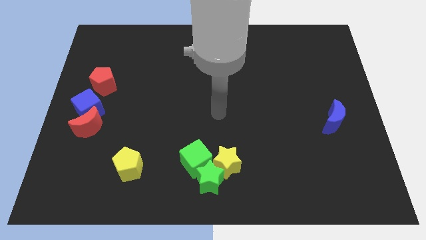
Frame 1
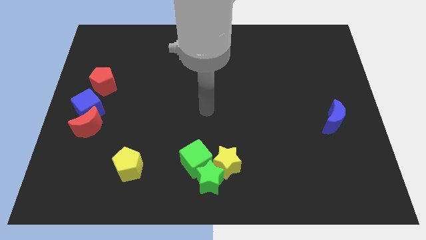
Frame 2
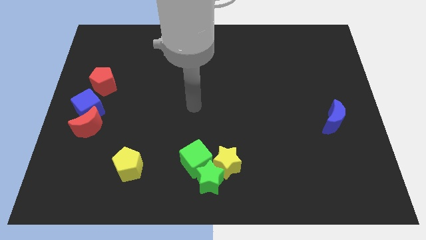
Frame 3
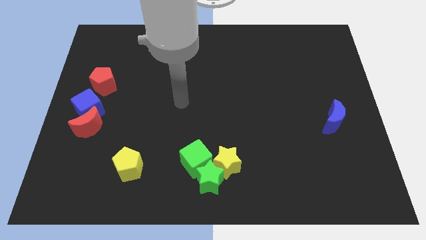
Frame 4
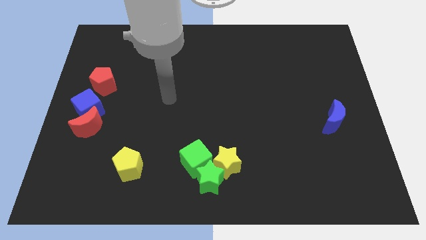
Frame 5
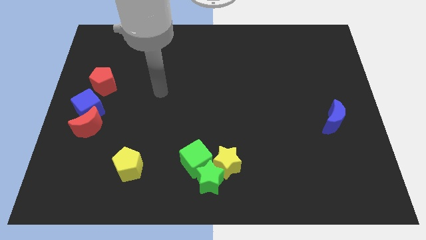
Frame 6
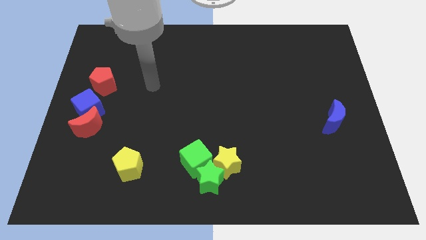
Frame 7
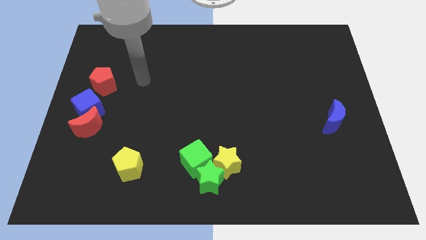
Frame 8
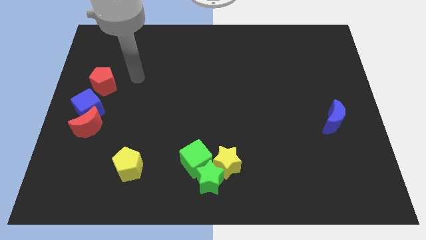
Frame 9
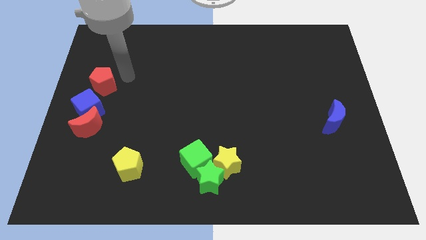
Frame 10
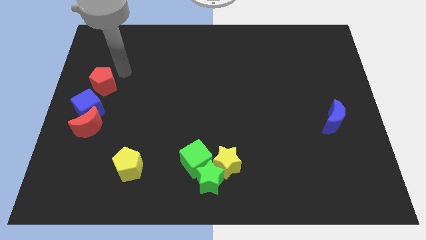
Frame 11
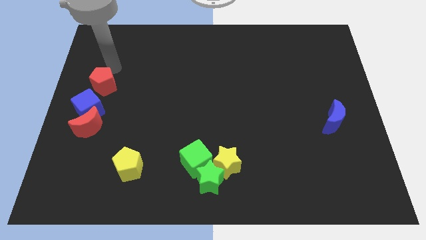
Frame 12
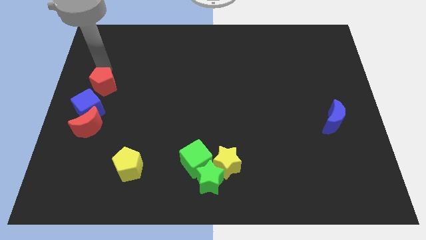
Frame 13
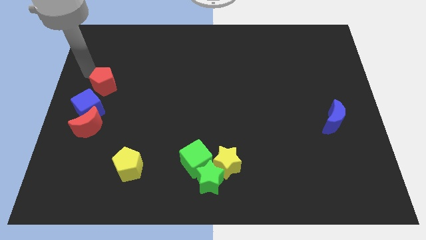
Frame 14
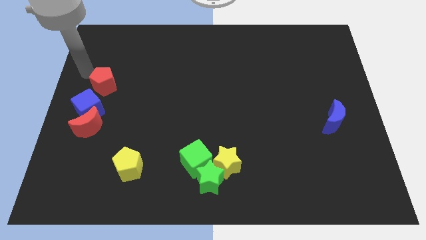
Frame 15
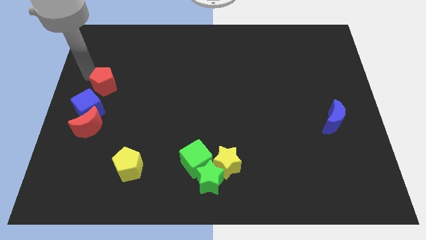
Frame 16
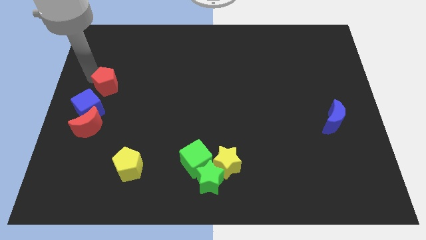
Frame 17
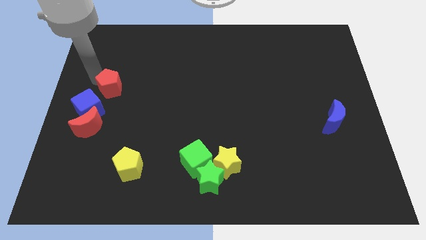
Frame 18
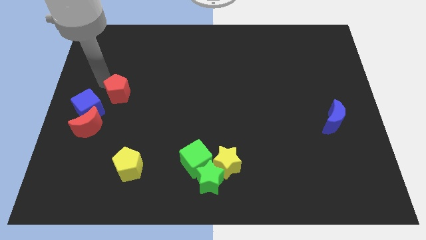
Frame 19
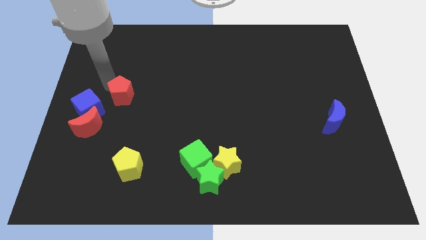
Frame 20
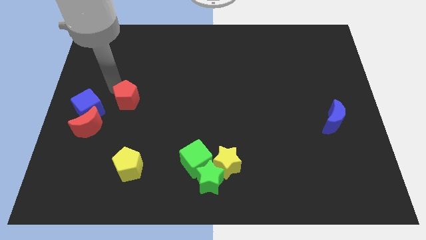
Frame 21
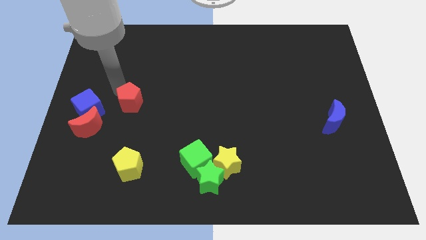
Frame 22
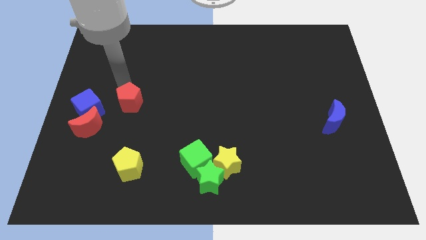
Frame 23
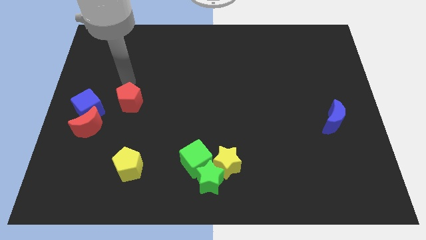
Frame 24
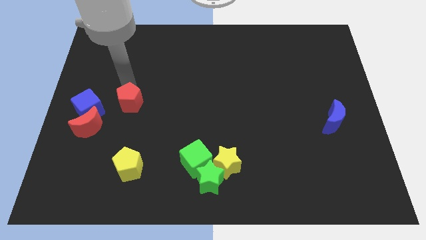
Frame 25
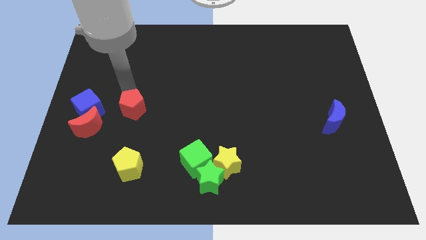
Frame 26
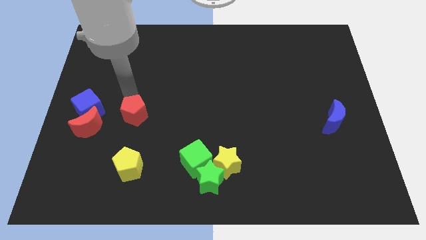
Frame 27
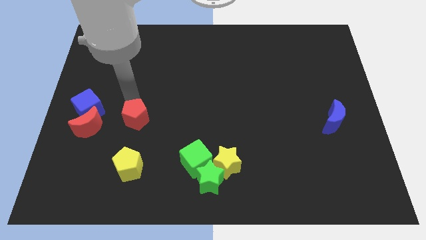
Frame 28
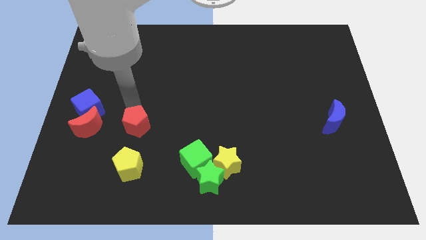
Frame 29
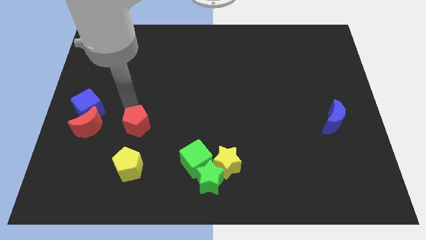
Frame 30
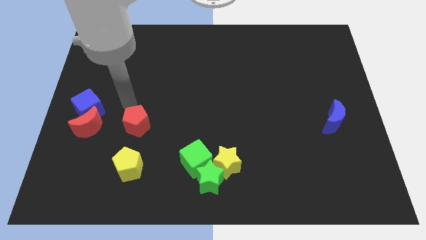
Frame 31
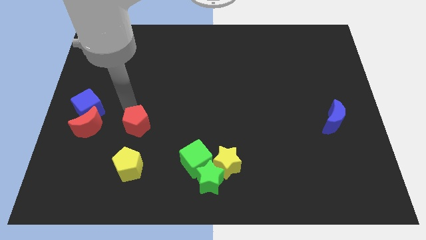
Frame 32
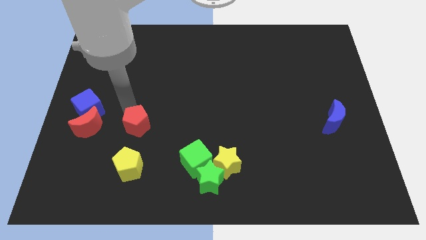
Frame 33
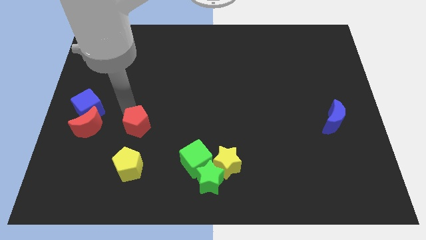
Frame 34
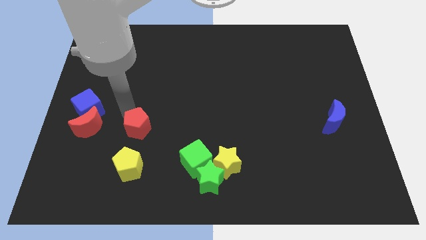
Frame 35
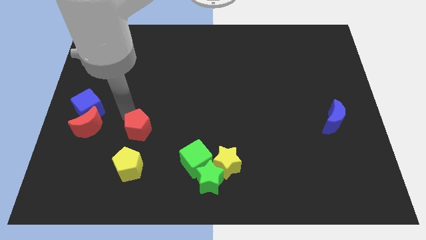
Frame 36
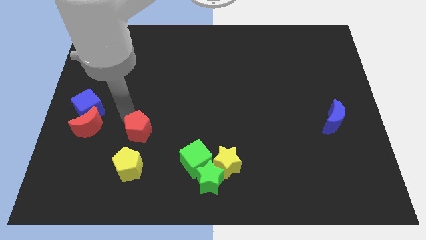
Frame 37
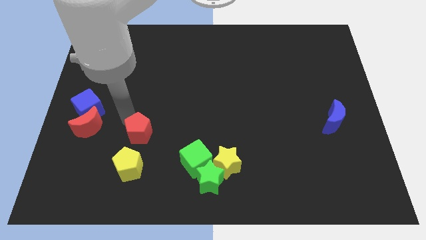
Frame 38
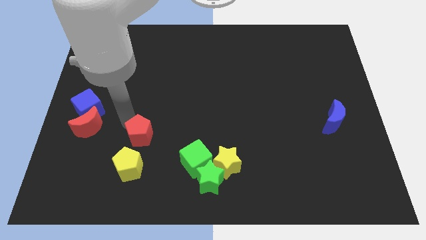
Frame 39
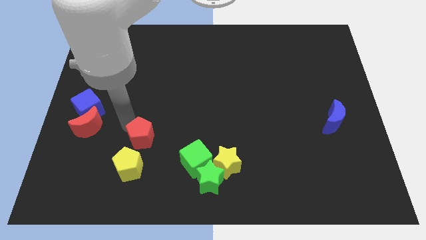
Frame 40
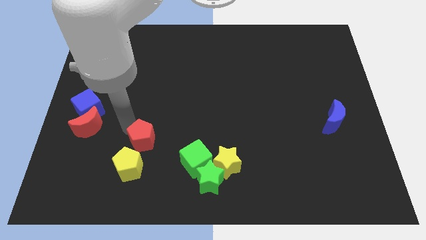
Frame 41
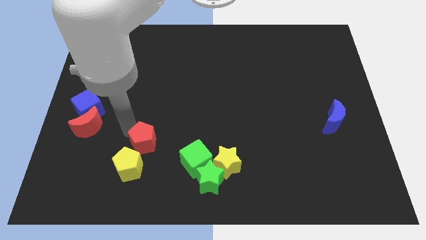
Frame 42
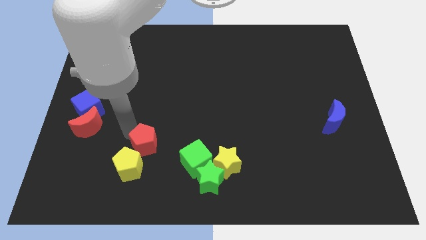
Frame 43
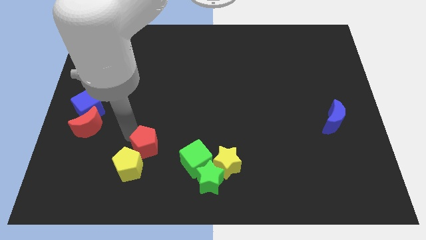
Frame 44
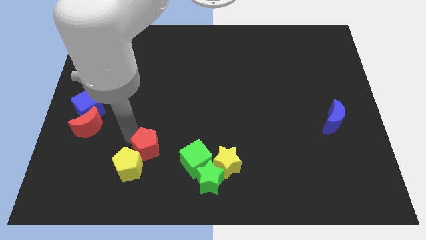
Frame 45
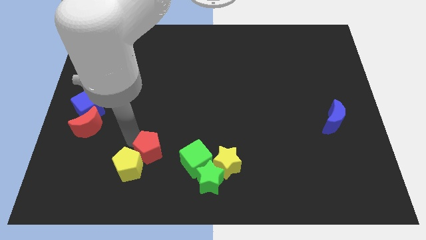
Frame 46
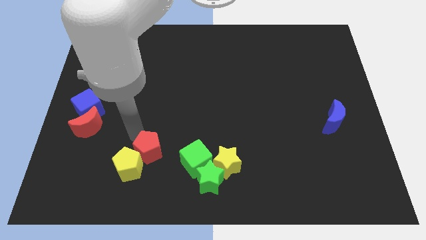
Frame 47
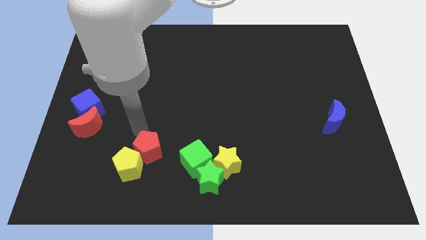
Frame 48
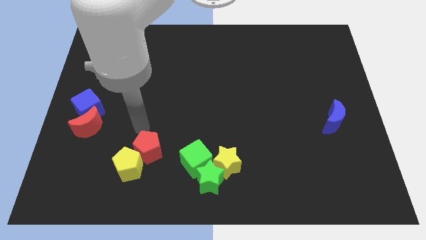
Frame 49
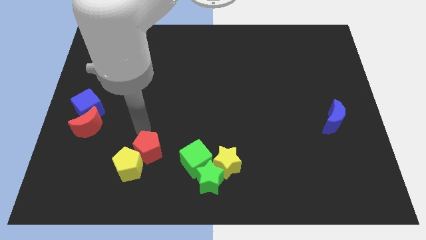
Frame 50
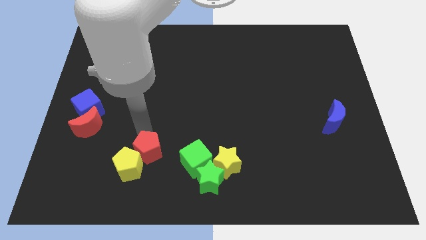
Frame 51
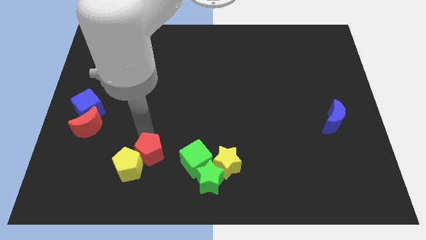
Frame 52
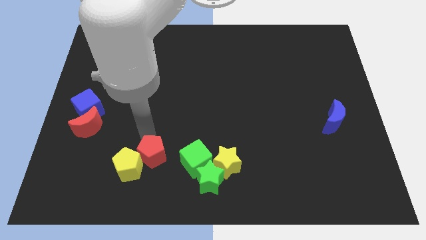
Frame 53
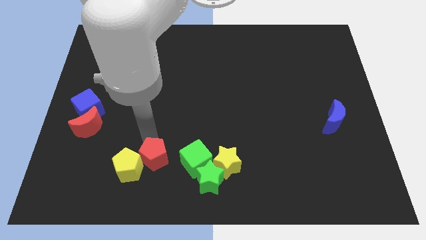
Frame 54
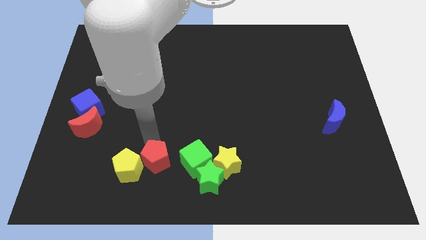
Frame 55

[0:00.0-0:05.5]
move the red pentagon to the left side of the green star

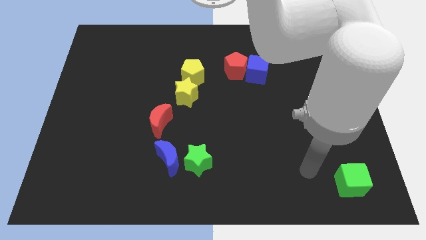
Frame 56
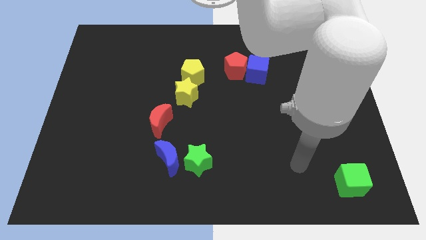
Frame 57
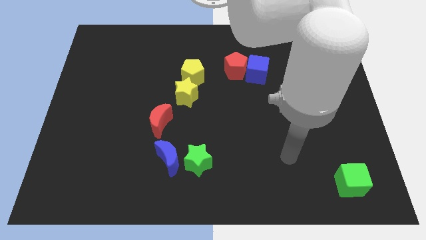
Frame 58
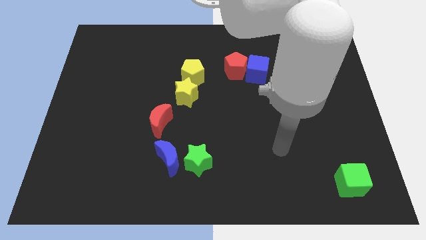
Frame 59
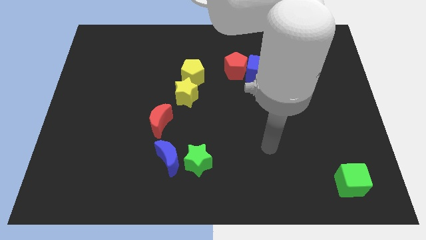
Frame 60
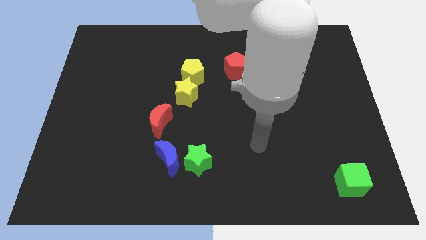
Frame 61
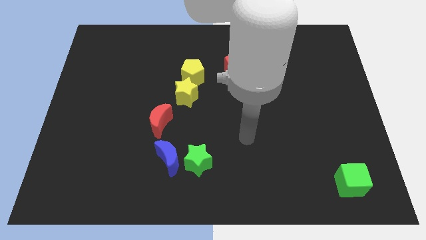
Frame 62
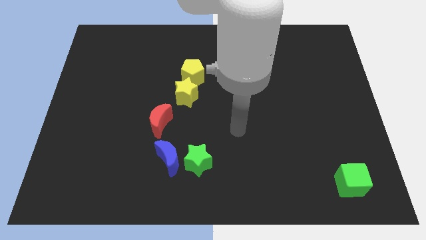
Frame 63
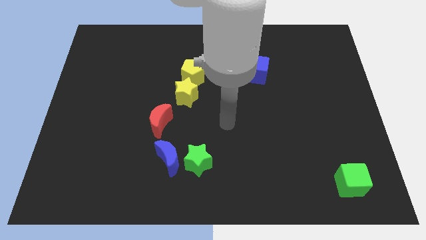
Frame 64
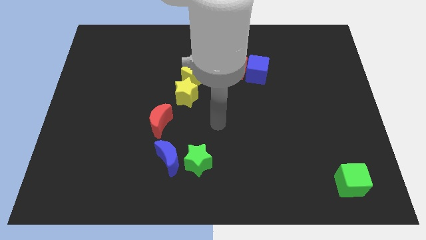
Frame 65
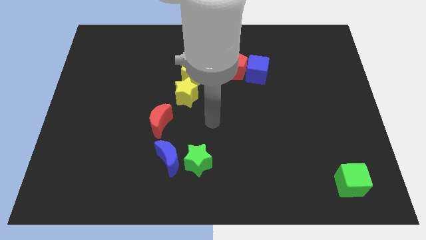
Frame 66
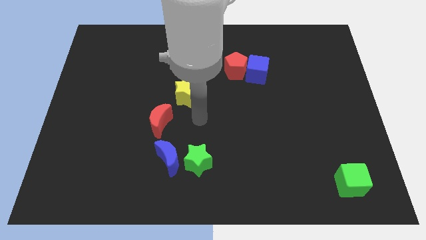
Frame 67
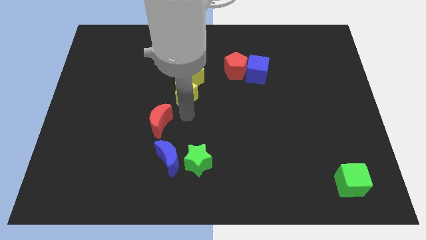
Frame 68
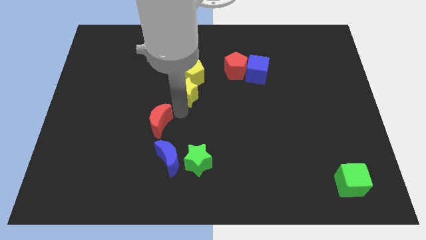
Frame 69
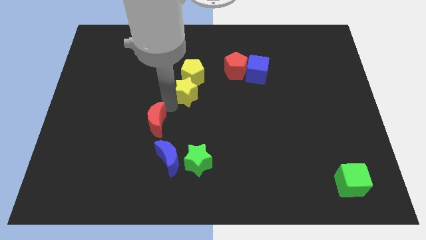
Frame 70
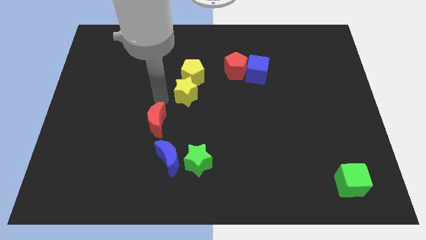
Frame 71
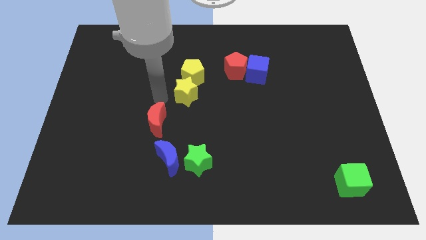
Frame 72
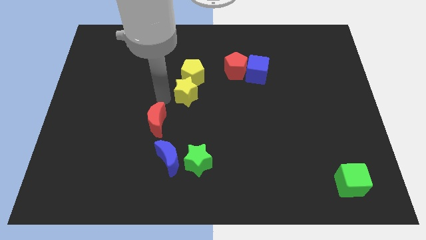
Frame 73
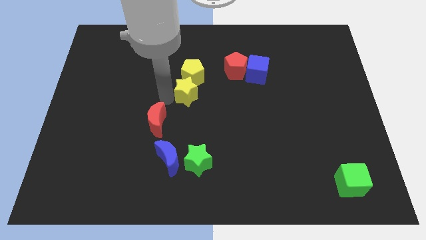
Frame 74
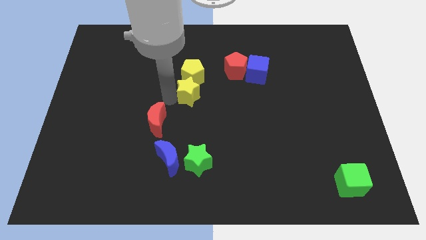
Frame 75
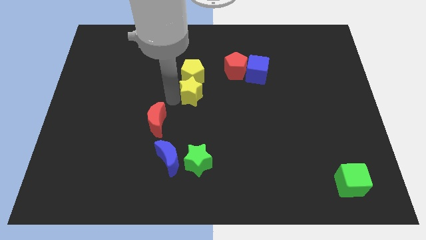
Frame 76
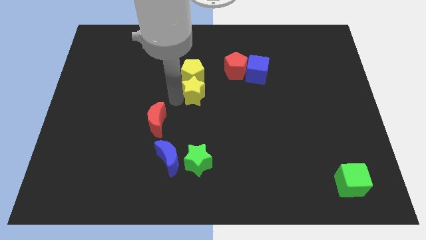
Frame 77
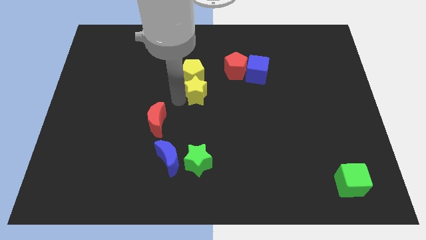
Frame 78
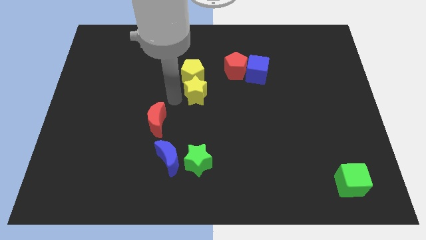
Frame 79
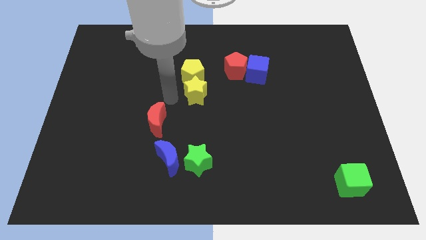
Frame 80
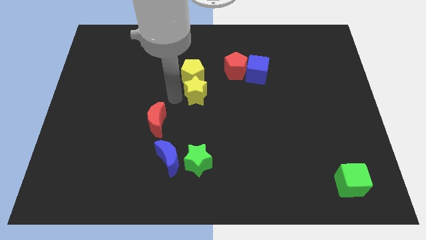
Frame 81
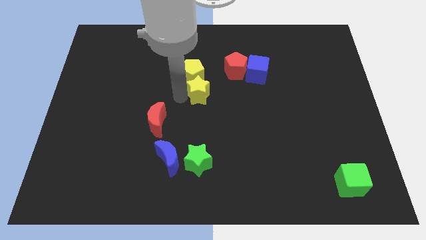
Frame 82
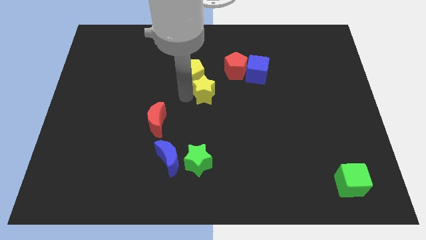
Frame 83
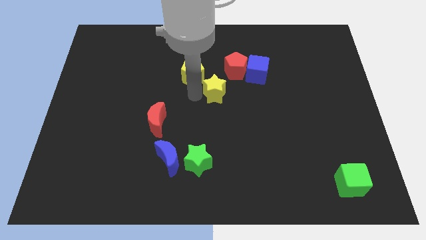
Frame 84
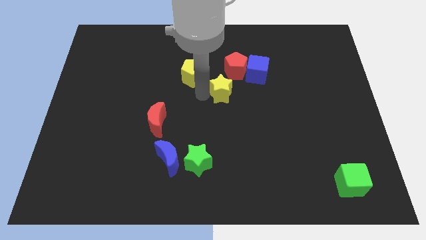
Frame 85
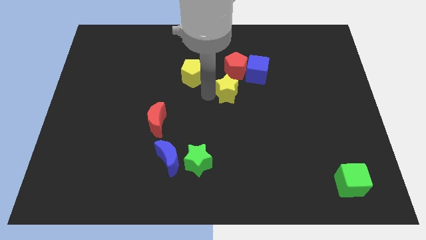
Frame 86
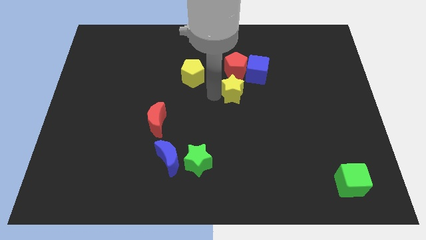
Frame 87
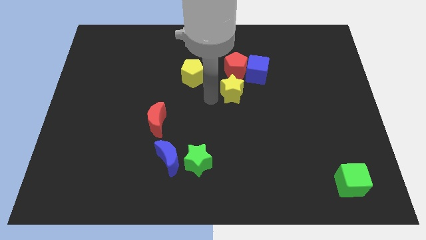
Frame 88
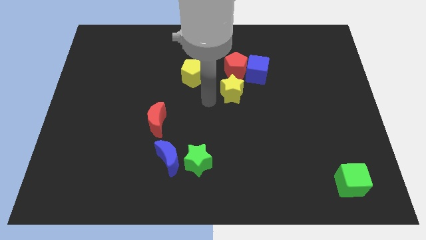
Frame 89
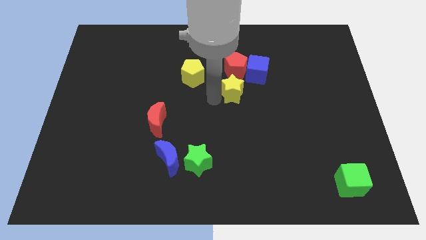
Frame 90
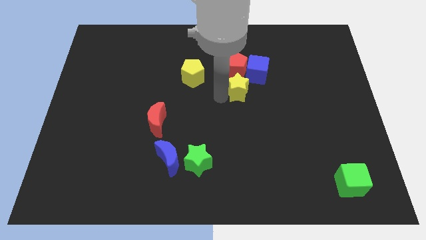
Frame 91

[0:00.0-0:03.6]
put the yellow star to the bottom right side of the red pentagon
